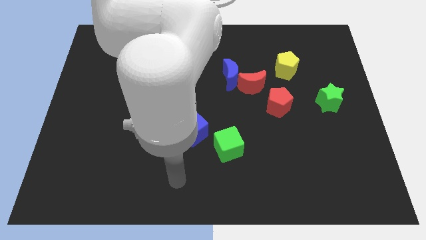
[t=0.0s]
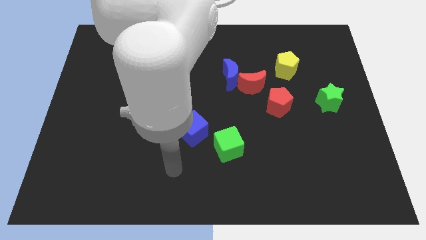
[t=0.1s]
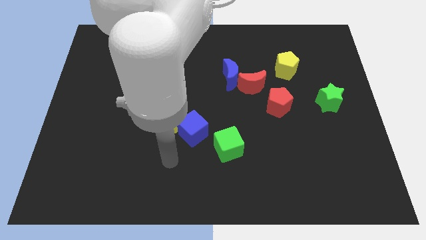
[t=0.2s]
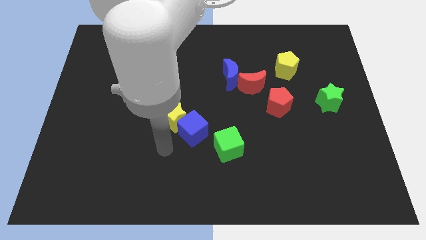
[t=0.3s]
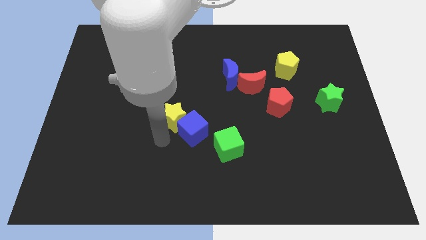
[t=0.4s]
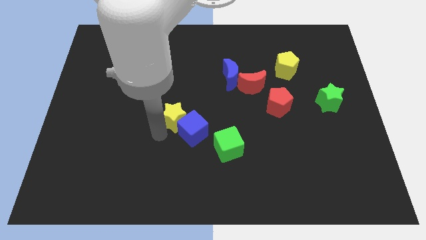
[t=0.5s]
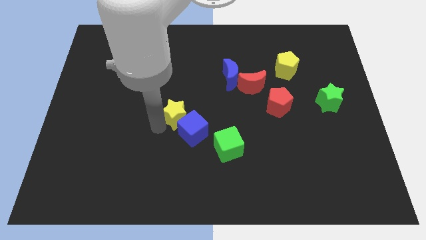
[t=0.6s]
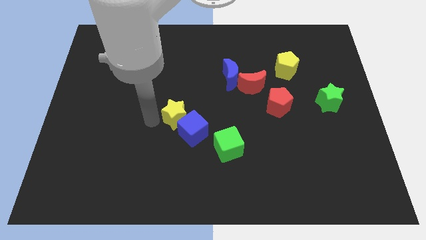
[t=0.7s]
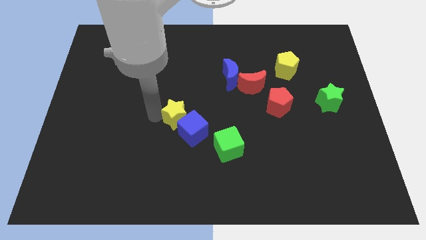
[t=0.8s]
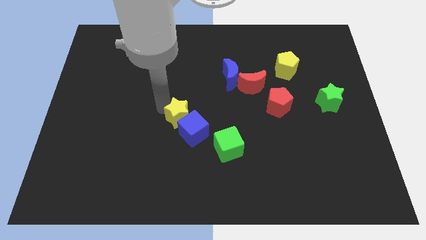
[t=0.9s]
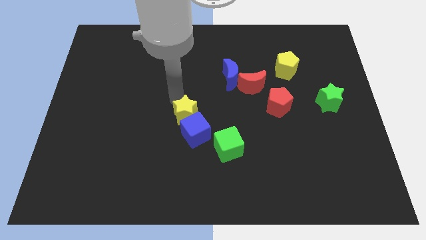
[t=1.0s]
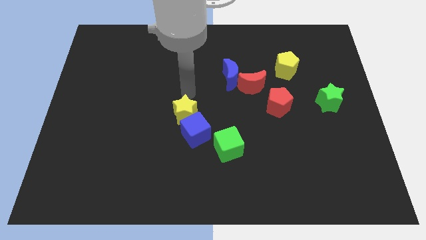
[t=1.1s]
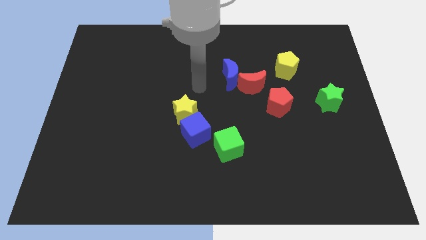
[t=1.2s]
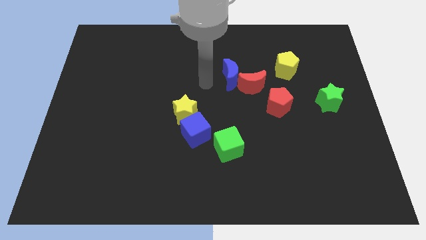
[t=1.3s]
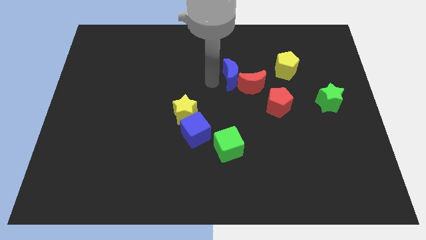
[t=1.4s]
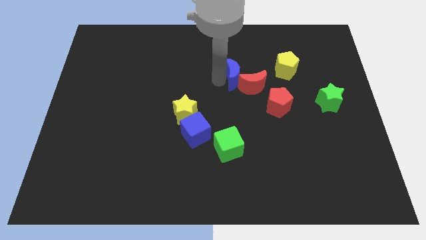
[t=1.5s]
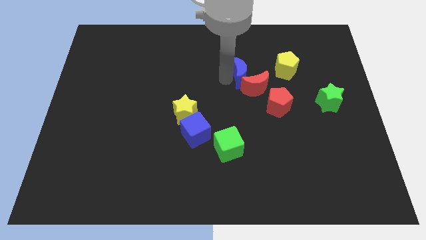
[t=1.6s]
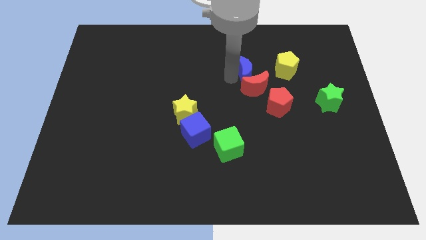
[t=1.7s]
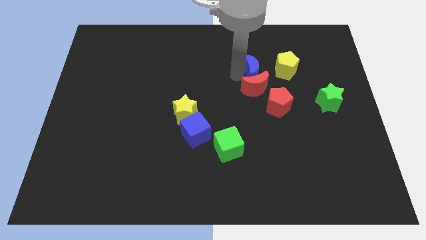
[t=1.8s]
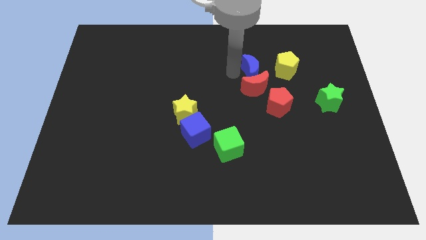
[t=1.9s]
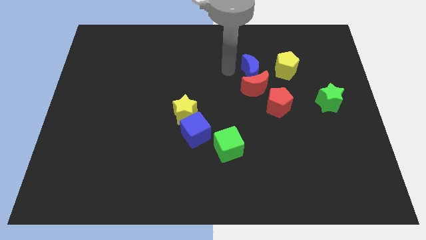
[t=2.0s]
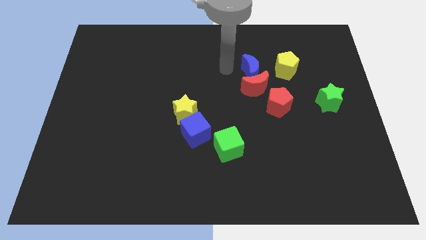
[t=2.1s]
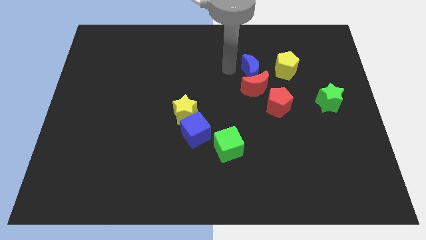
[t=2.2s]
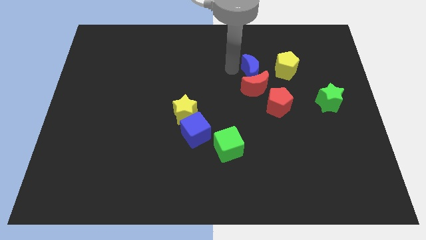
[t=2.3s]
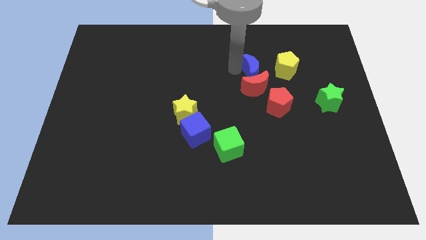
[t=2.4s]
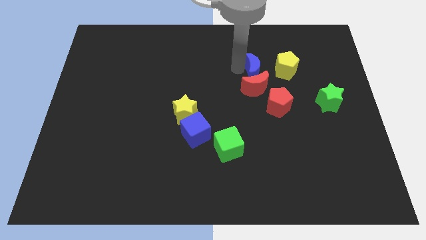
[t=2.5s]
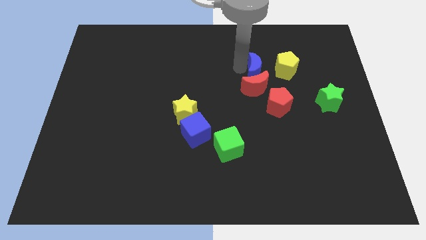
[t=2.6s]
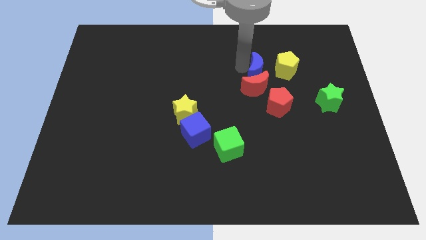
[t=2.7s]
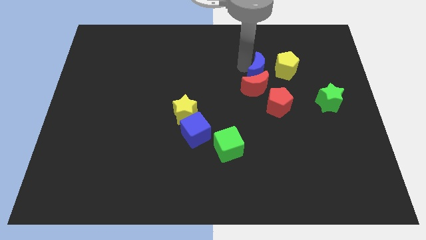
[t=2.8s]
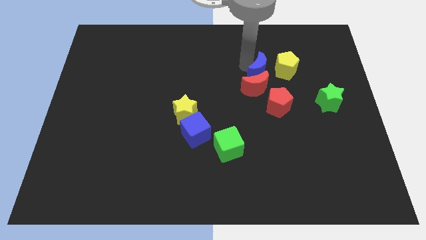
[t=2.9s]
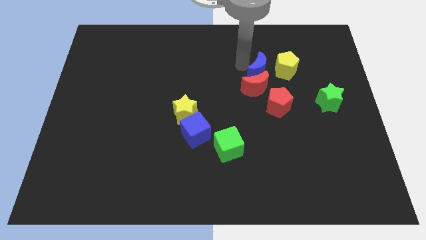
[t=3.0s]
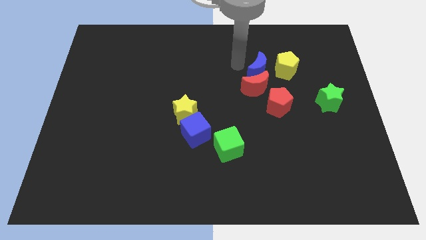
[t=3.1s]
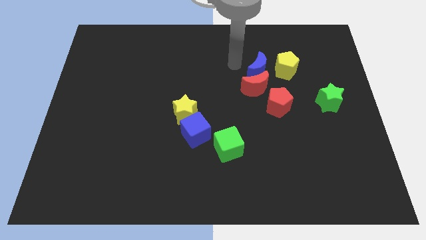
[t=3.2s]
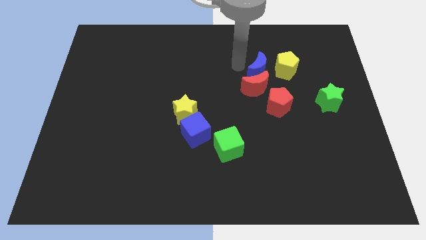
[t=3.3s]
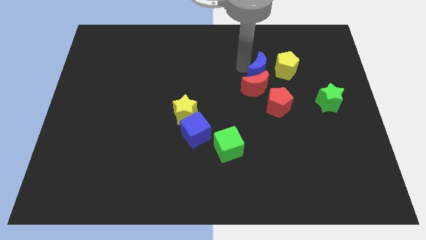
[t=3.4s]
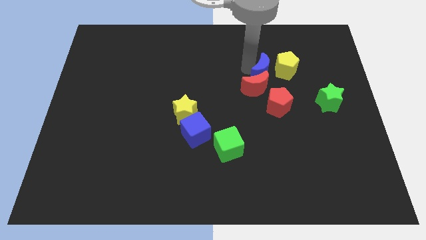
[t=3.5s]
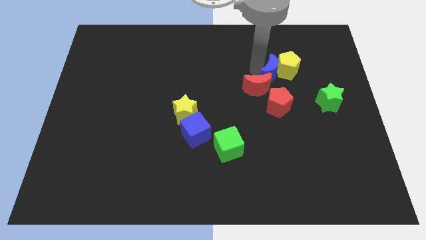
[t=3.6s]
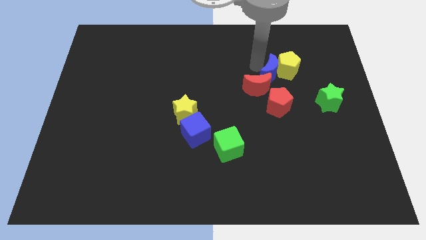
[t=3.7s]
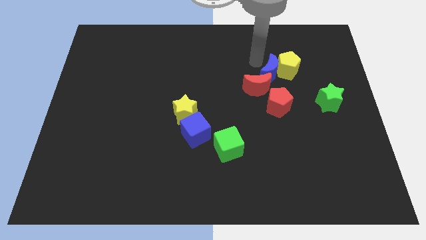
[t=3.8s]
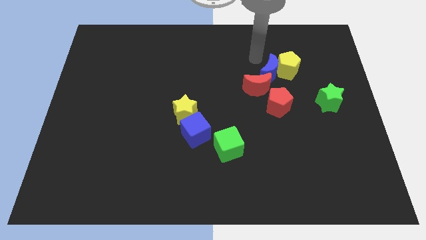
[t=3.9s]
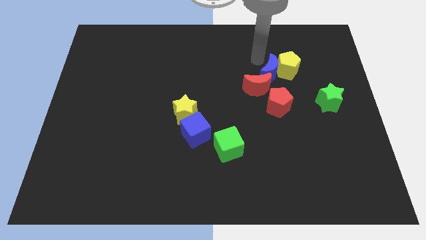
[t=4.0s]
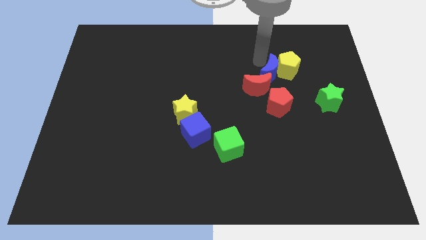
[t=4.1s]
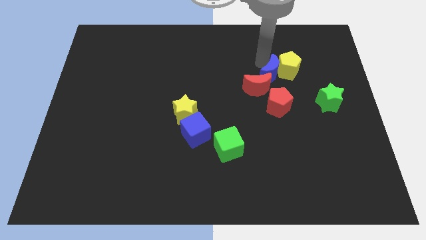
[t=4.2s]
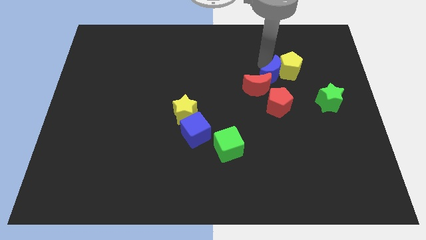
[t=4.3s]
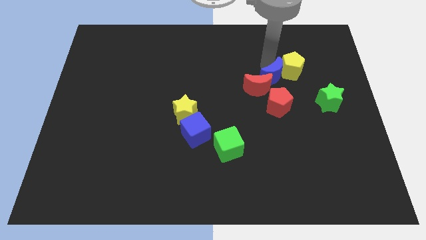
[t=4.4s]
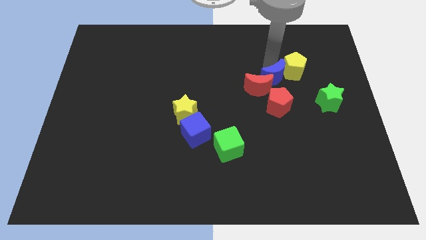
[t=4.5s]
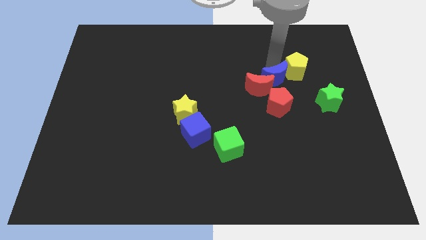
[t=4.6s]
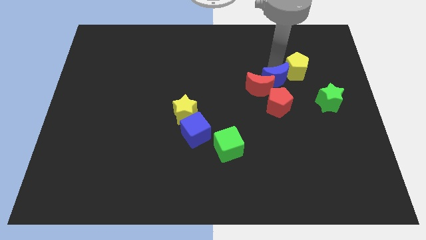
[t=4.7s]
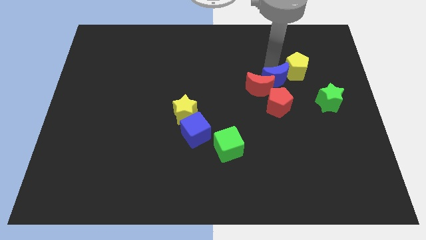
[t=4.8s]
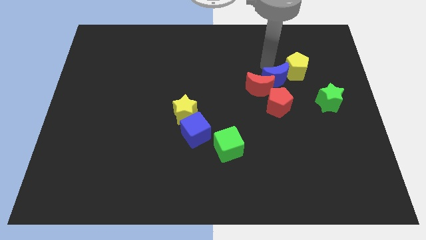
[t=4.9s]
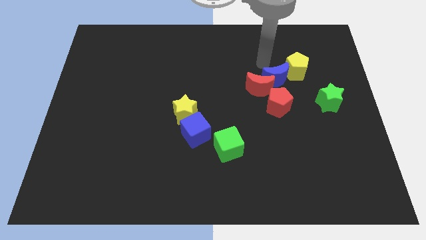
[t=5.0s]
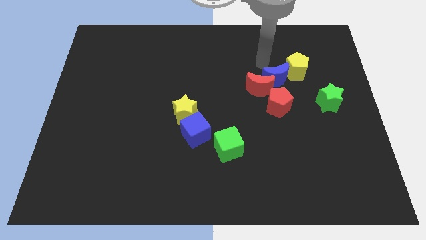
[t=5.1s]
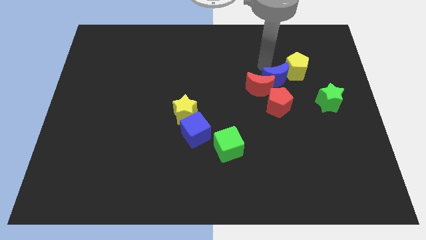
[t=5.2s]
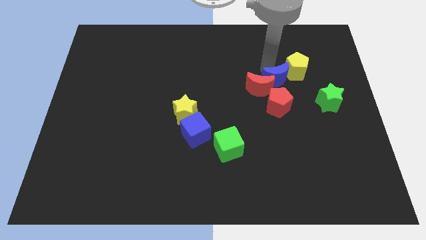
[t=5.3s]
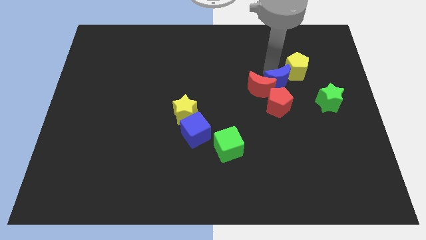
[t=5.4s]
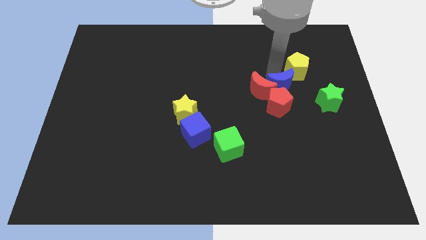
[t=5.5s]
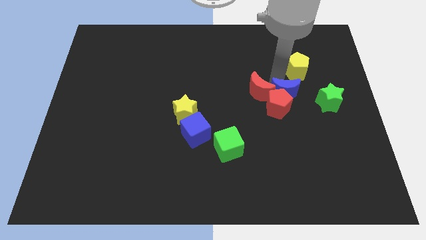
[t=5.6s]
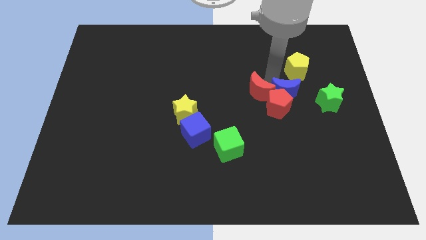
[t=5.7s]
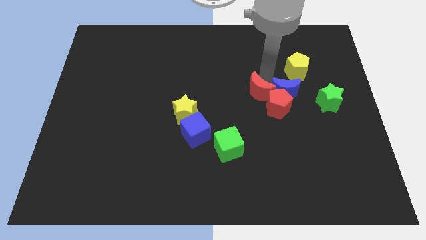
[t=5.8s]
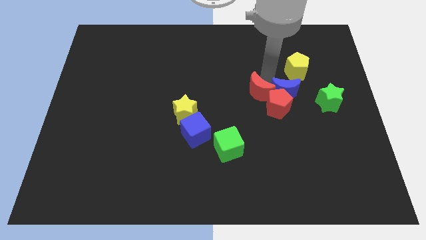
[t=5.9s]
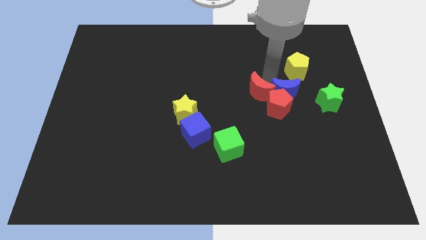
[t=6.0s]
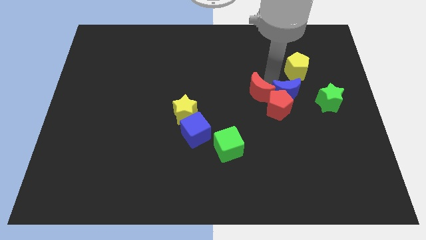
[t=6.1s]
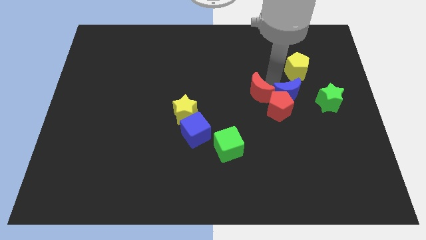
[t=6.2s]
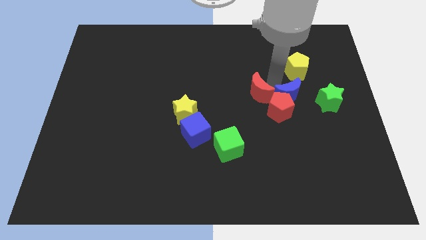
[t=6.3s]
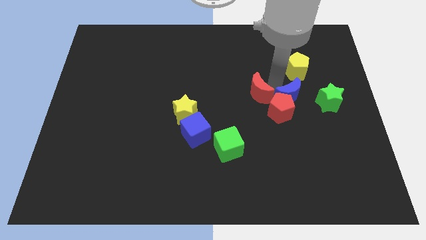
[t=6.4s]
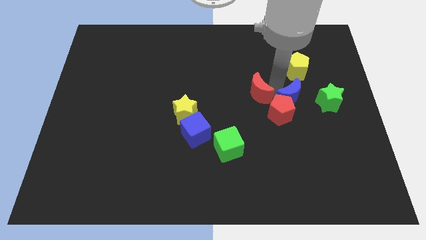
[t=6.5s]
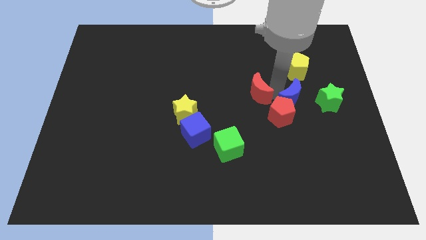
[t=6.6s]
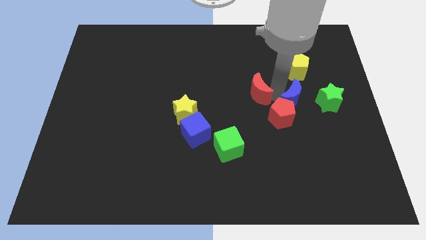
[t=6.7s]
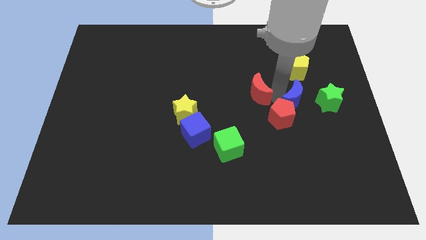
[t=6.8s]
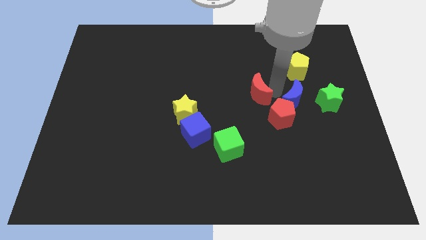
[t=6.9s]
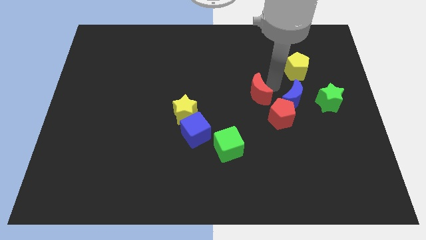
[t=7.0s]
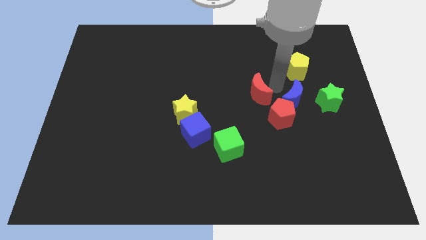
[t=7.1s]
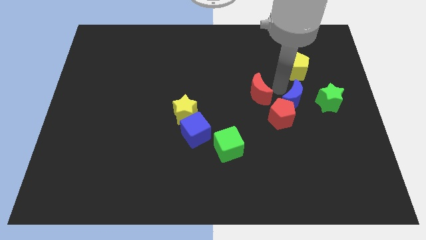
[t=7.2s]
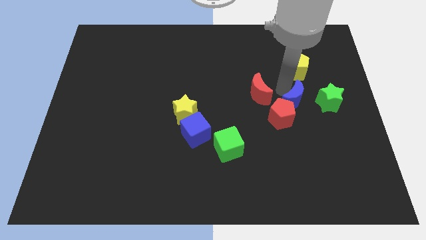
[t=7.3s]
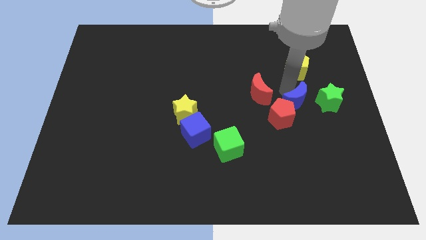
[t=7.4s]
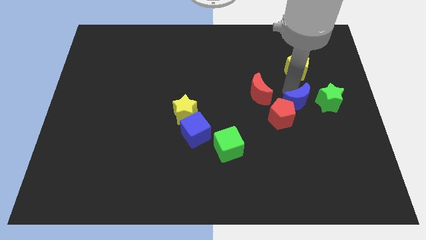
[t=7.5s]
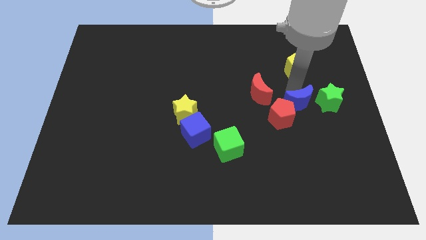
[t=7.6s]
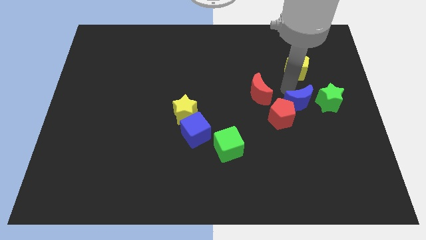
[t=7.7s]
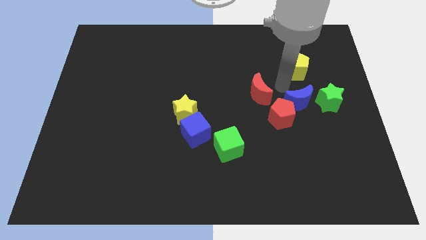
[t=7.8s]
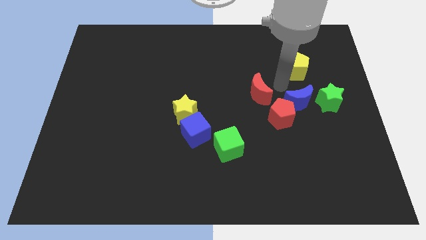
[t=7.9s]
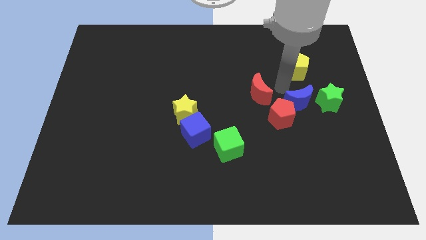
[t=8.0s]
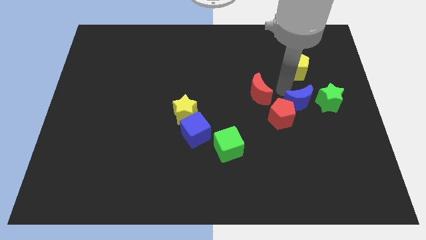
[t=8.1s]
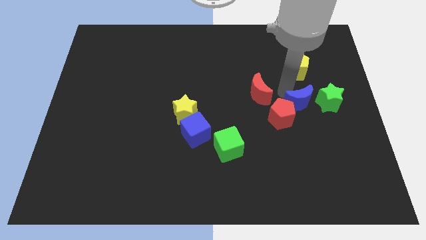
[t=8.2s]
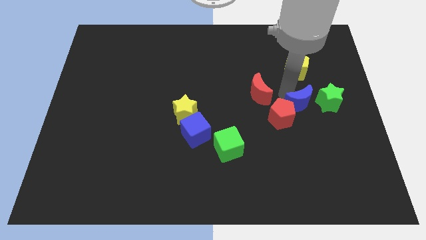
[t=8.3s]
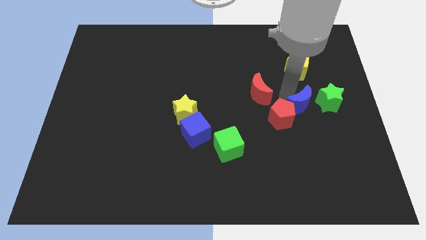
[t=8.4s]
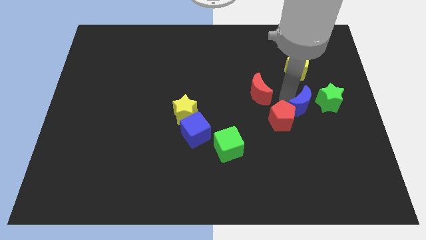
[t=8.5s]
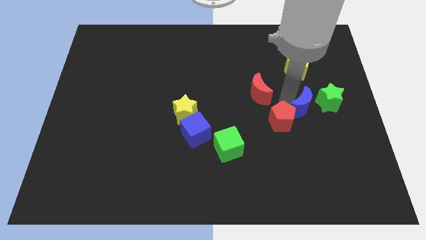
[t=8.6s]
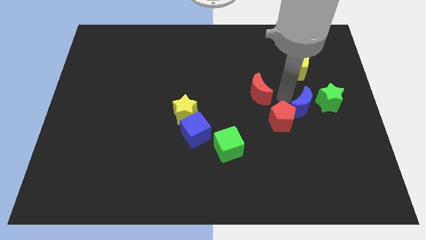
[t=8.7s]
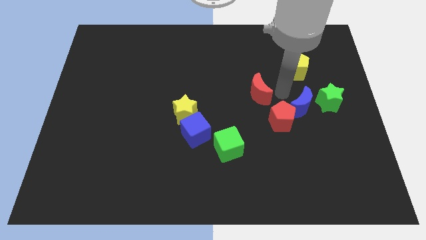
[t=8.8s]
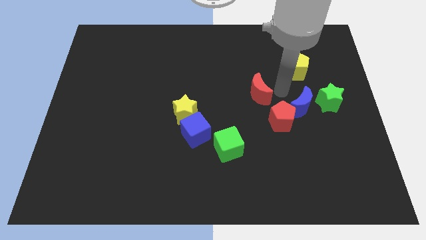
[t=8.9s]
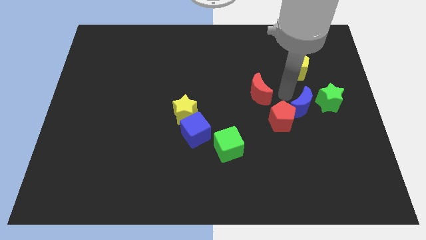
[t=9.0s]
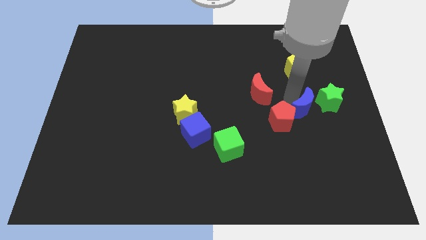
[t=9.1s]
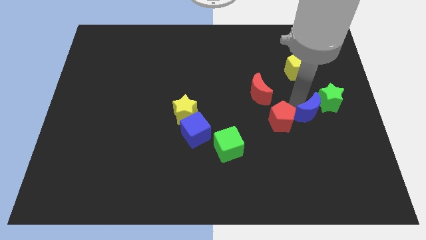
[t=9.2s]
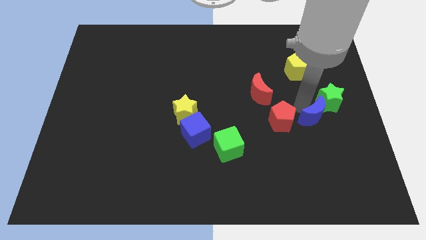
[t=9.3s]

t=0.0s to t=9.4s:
slide the blue moon down and then right
